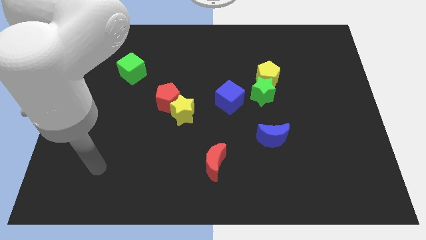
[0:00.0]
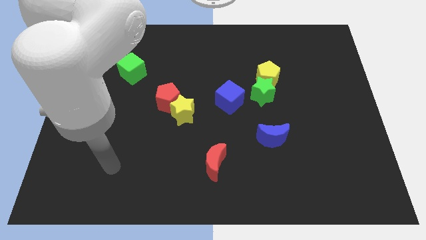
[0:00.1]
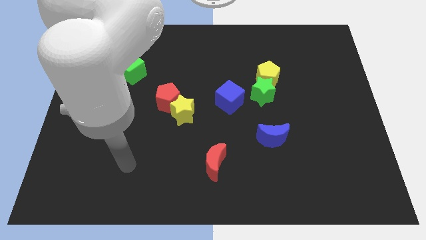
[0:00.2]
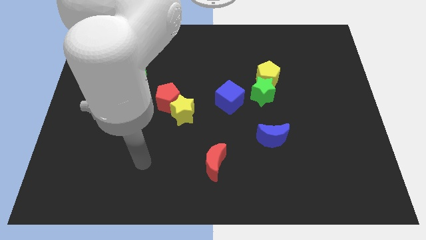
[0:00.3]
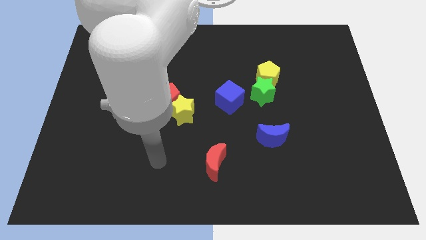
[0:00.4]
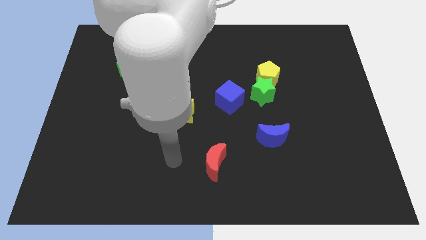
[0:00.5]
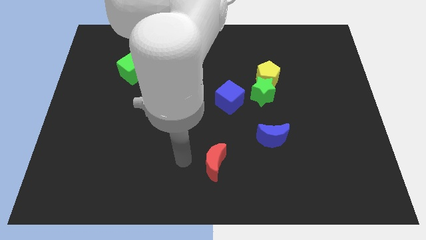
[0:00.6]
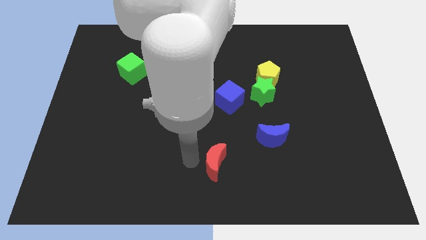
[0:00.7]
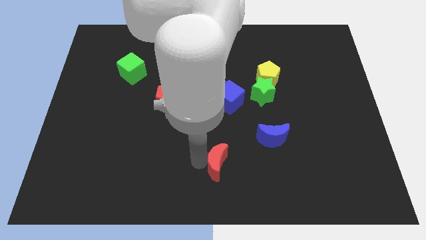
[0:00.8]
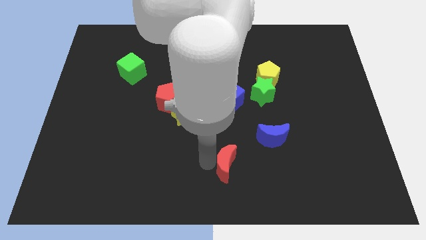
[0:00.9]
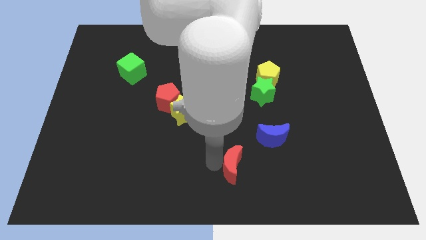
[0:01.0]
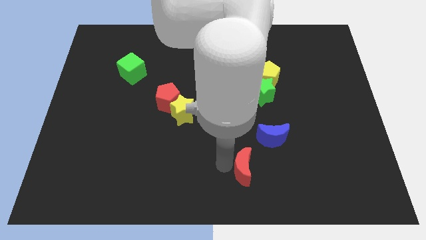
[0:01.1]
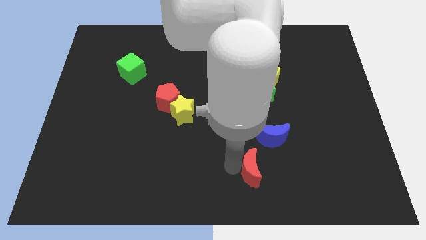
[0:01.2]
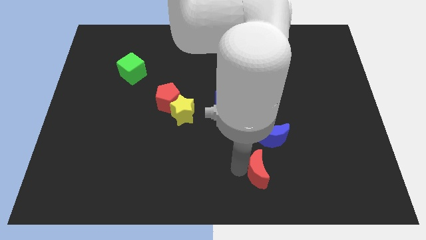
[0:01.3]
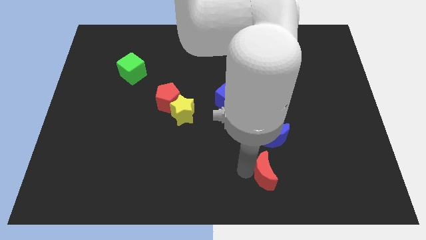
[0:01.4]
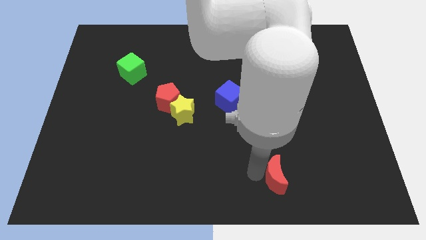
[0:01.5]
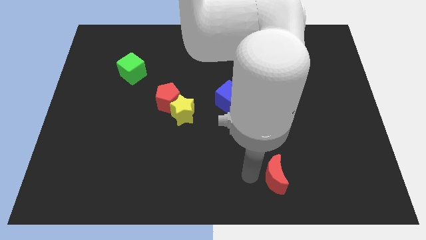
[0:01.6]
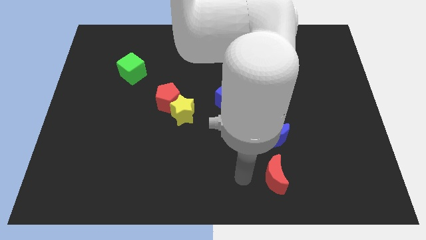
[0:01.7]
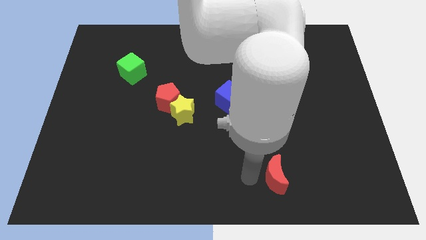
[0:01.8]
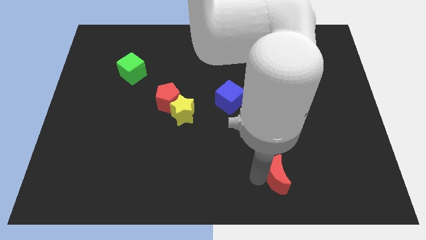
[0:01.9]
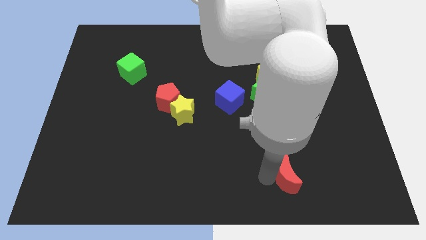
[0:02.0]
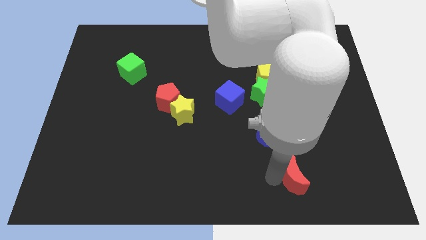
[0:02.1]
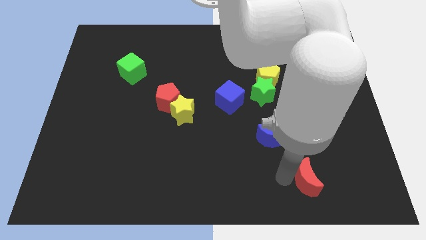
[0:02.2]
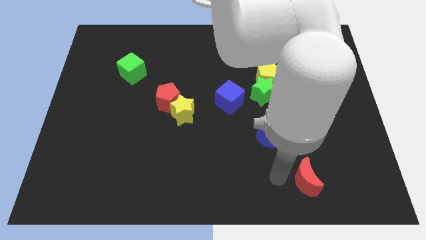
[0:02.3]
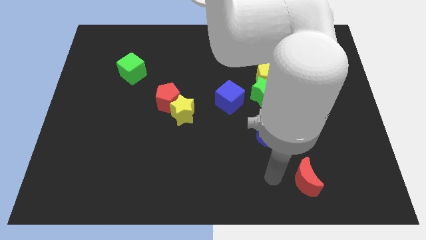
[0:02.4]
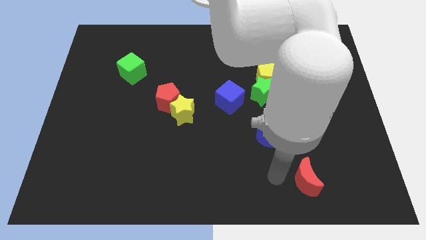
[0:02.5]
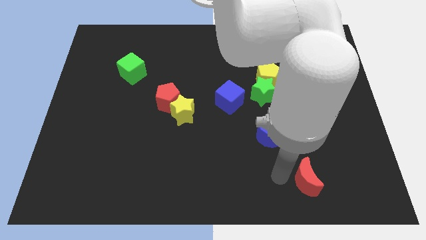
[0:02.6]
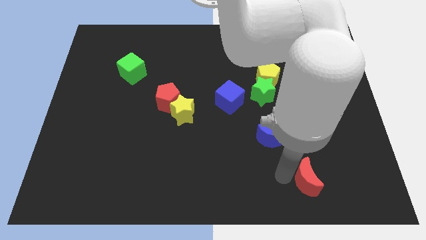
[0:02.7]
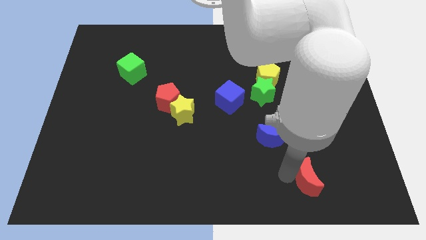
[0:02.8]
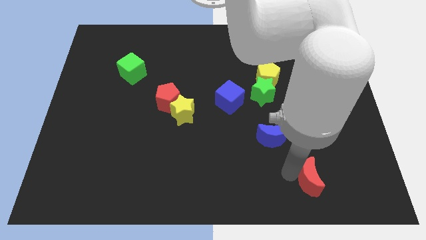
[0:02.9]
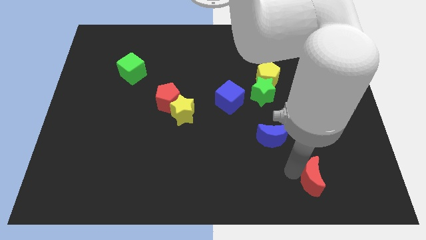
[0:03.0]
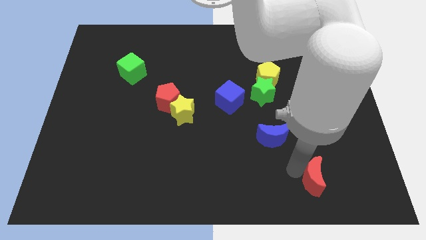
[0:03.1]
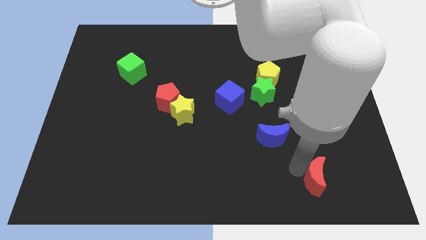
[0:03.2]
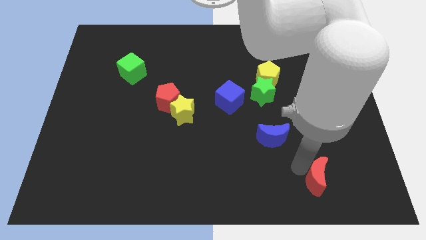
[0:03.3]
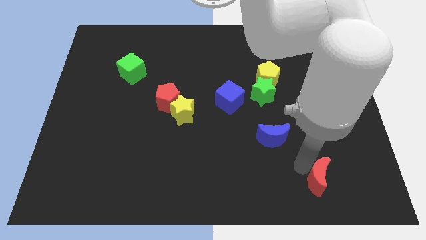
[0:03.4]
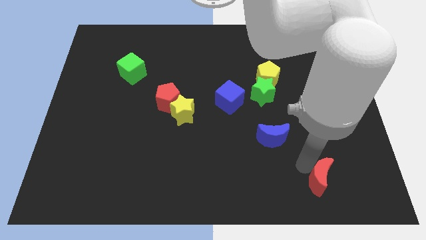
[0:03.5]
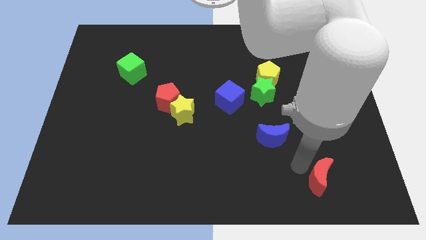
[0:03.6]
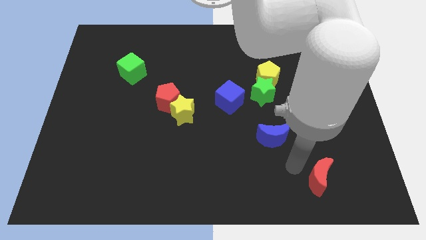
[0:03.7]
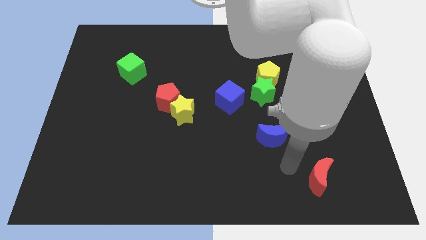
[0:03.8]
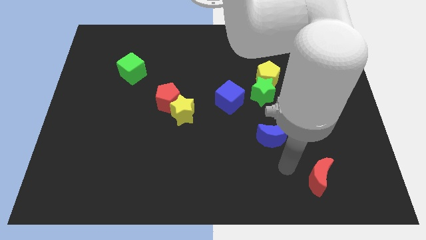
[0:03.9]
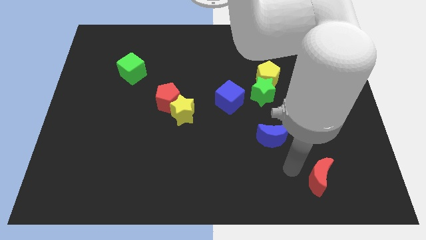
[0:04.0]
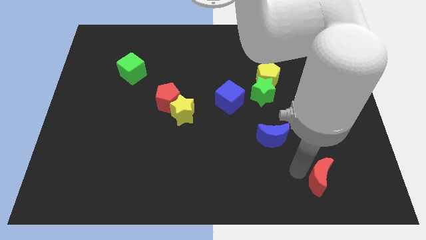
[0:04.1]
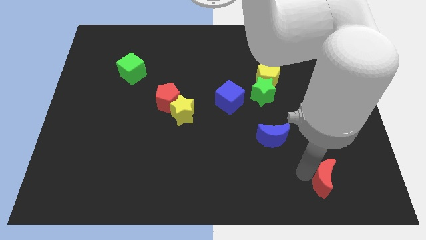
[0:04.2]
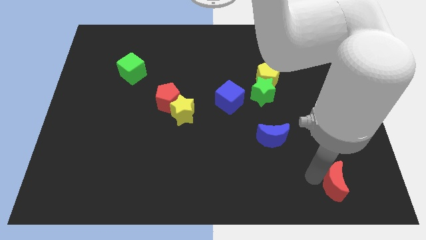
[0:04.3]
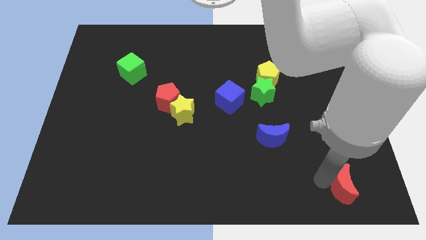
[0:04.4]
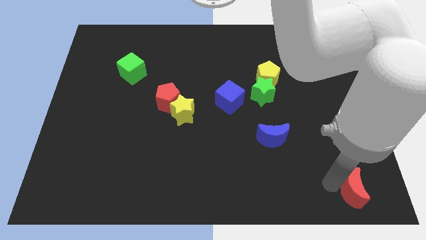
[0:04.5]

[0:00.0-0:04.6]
push the red moon to the lower right corner

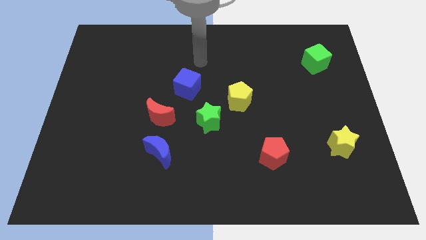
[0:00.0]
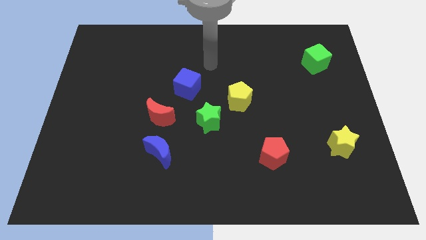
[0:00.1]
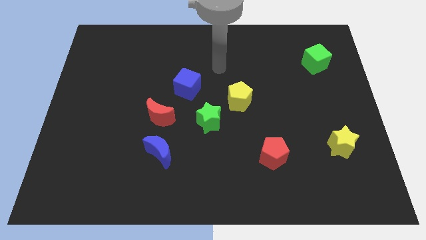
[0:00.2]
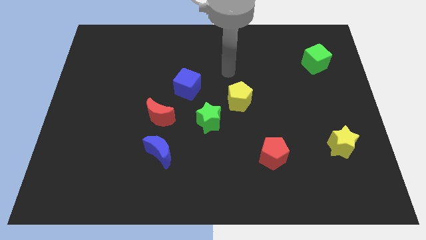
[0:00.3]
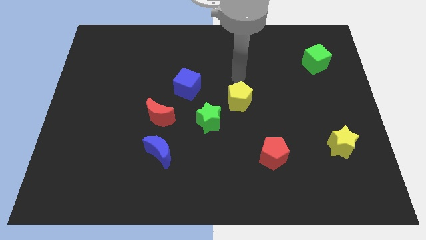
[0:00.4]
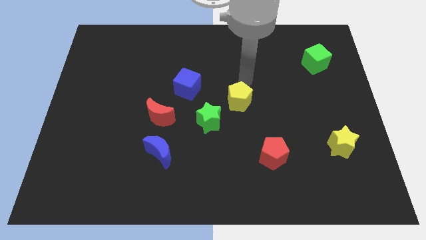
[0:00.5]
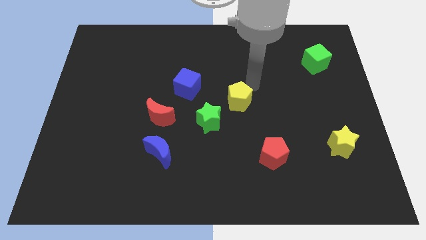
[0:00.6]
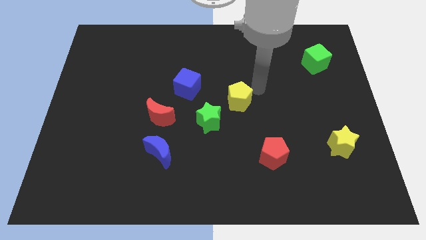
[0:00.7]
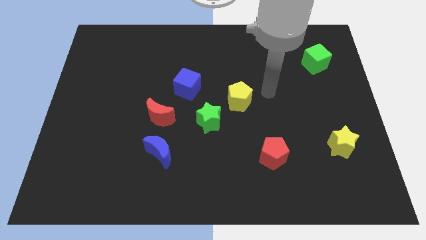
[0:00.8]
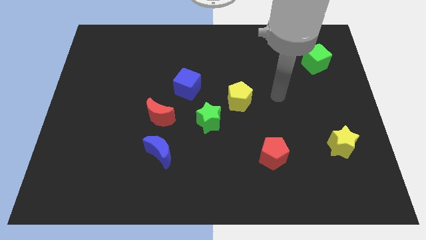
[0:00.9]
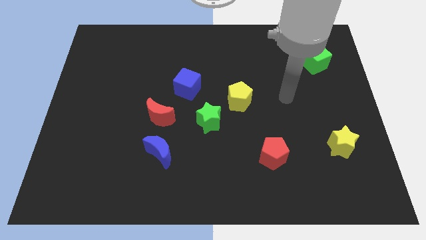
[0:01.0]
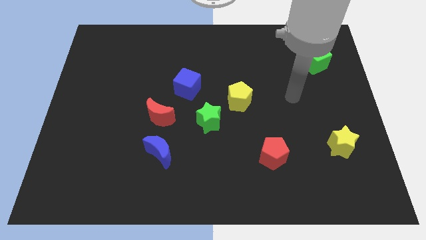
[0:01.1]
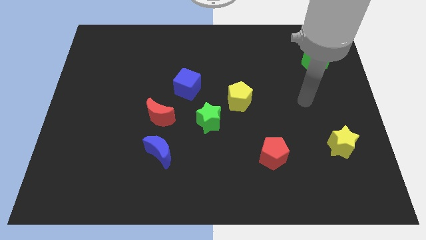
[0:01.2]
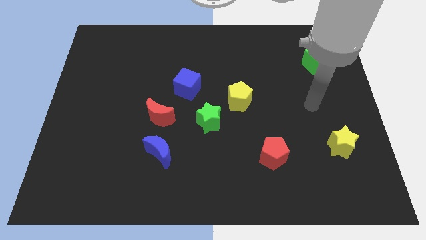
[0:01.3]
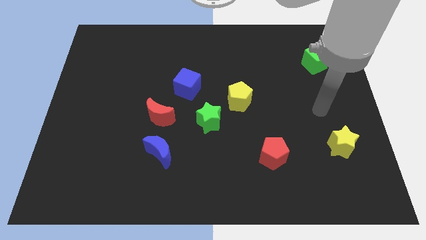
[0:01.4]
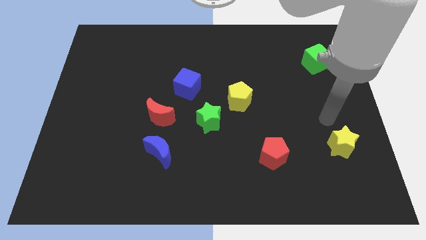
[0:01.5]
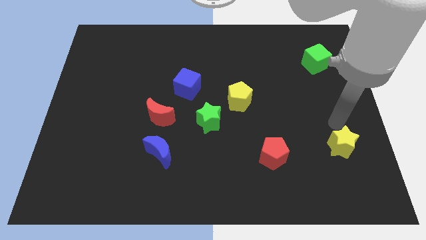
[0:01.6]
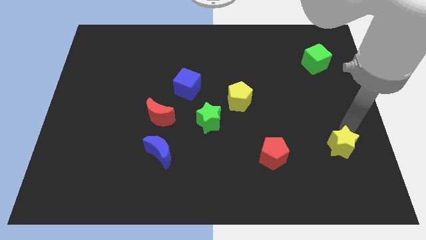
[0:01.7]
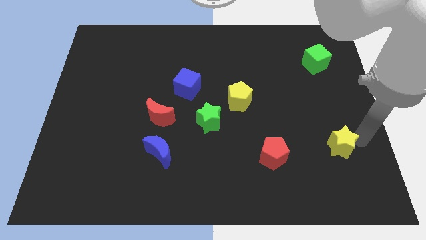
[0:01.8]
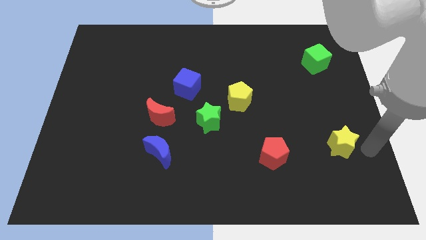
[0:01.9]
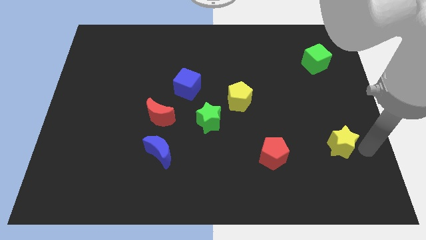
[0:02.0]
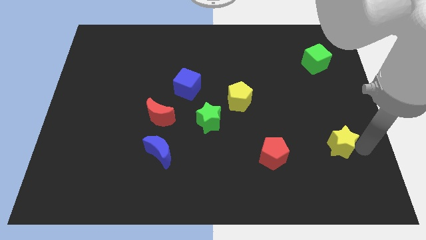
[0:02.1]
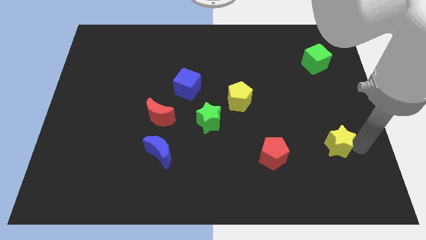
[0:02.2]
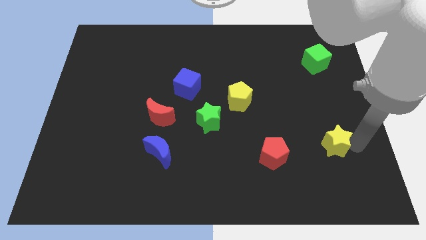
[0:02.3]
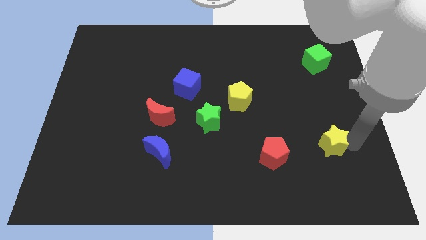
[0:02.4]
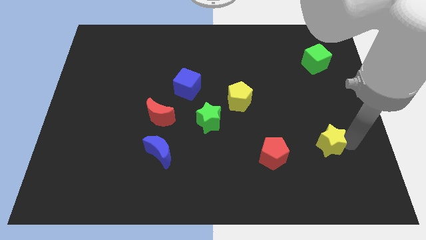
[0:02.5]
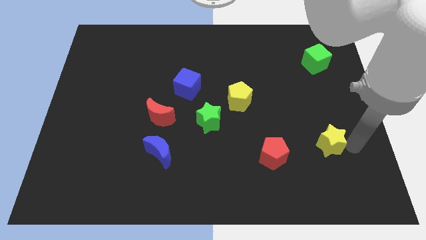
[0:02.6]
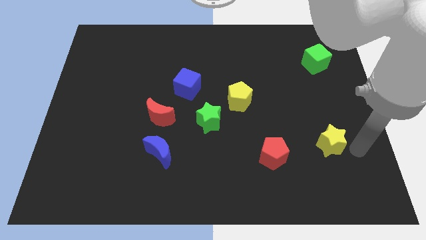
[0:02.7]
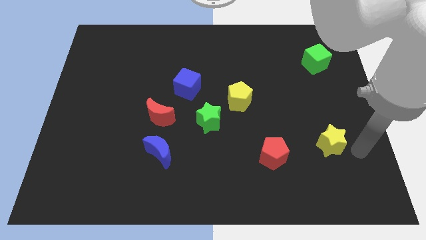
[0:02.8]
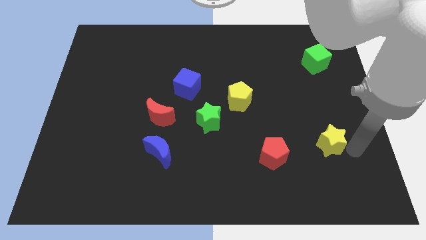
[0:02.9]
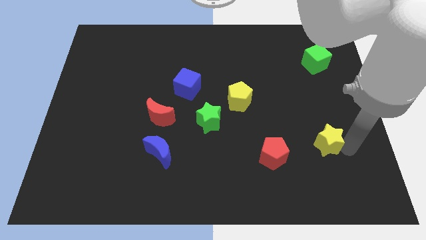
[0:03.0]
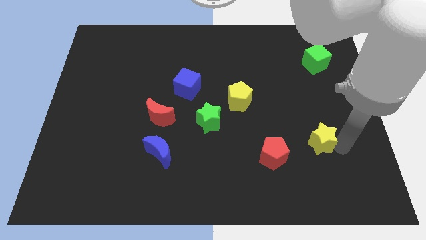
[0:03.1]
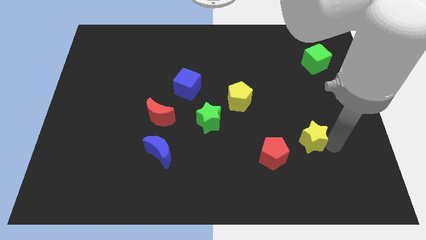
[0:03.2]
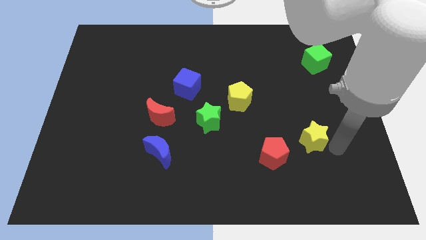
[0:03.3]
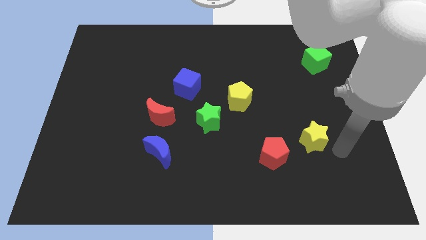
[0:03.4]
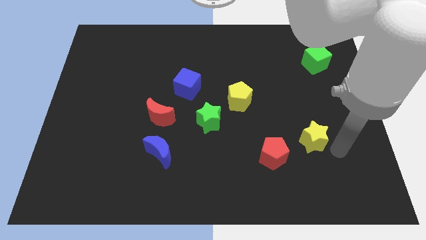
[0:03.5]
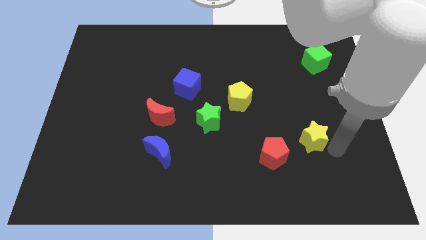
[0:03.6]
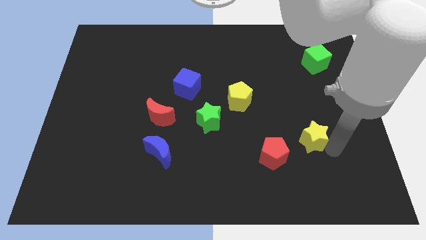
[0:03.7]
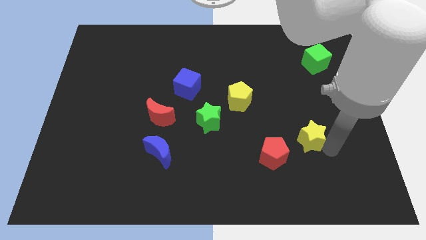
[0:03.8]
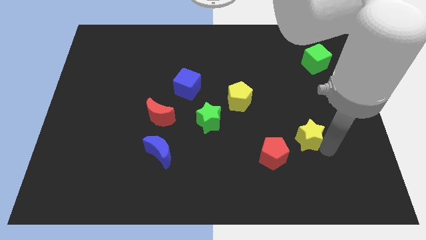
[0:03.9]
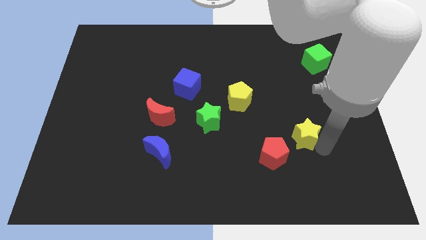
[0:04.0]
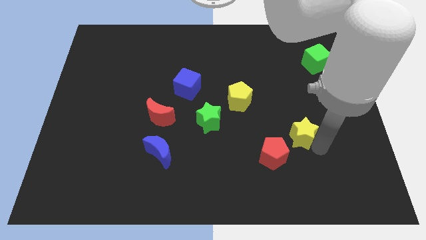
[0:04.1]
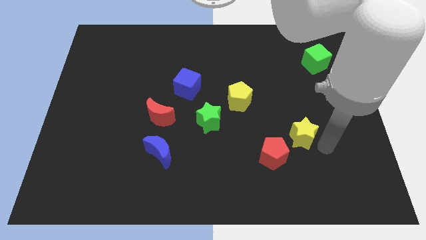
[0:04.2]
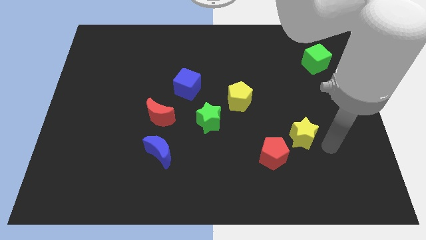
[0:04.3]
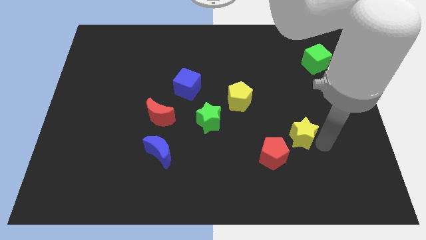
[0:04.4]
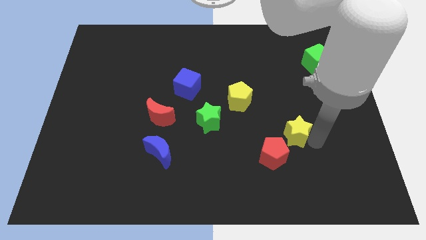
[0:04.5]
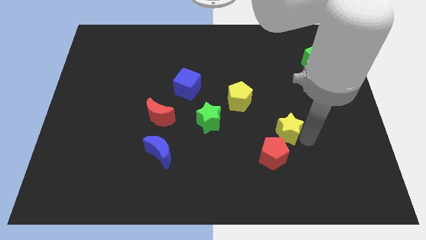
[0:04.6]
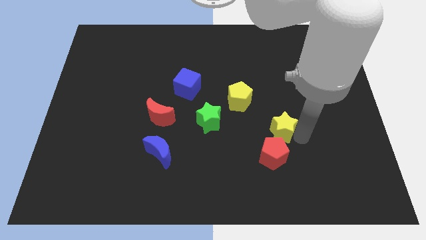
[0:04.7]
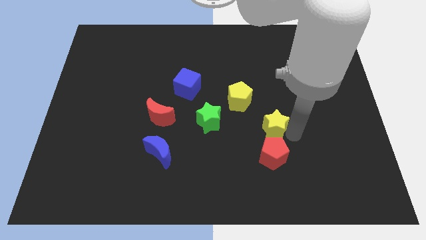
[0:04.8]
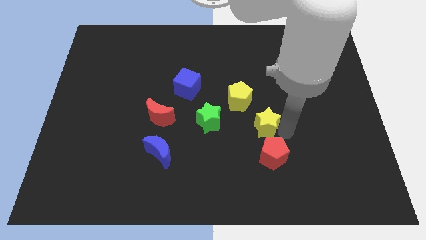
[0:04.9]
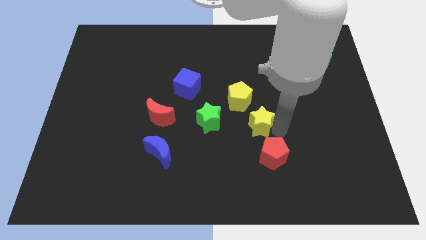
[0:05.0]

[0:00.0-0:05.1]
slide the yellow star to the center
